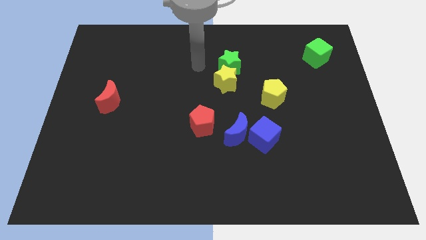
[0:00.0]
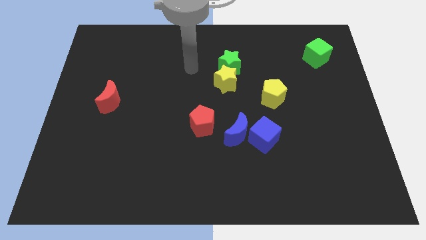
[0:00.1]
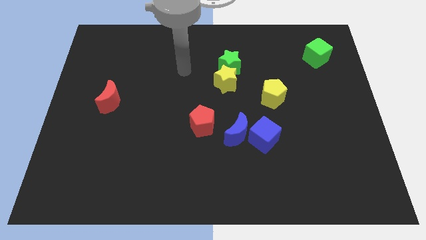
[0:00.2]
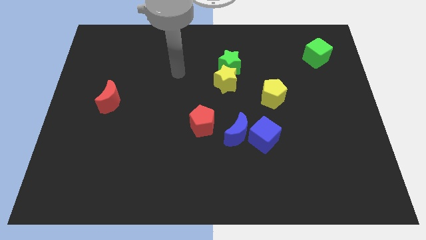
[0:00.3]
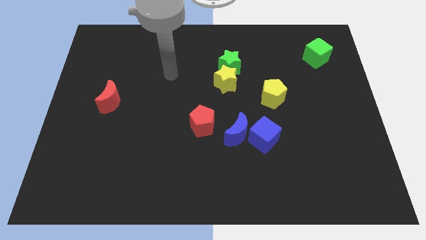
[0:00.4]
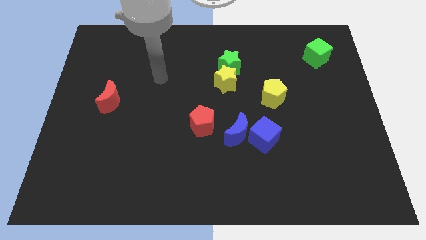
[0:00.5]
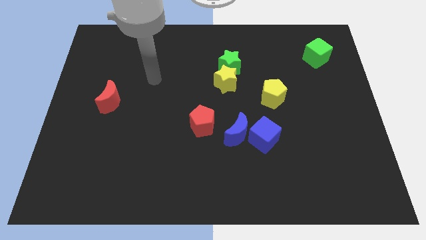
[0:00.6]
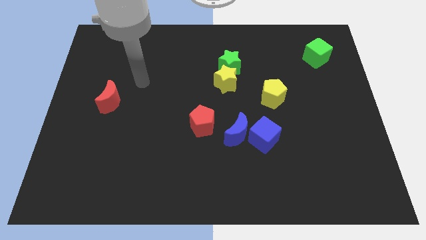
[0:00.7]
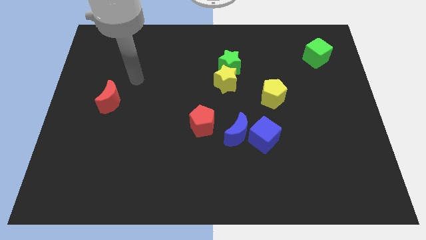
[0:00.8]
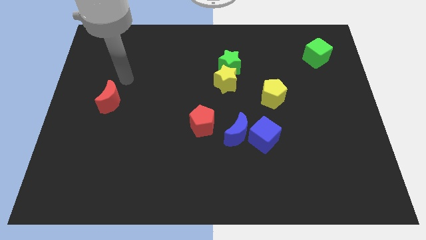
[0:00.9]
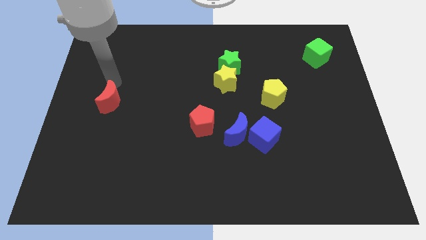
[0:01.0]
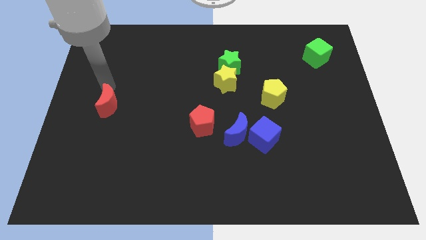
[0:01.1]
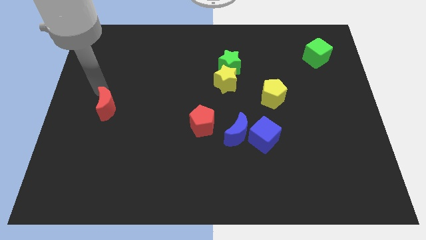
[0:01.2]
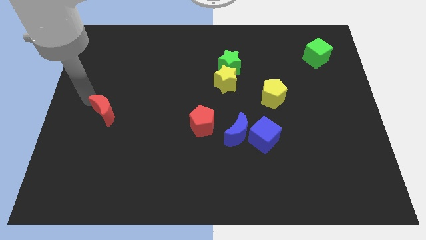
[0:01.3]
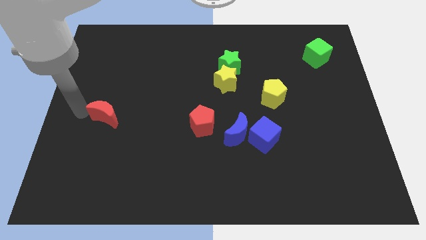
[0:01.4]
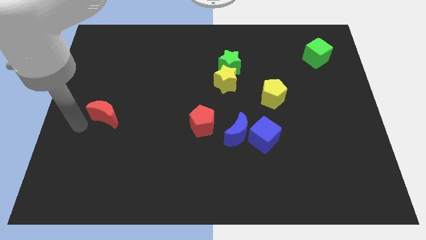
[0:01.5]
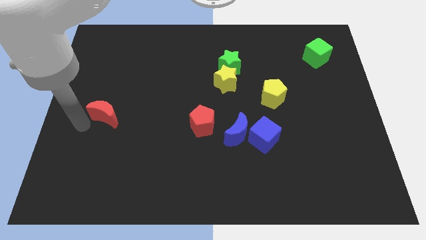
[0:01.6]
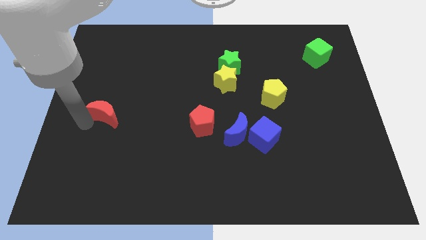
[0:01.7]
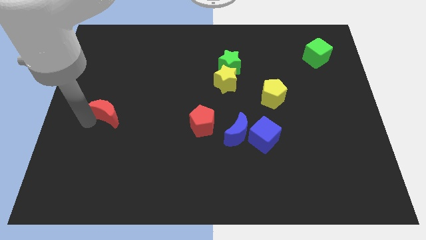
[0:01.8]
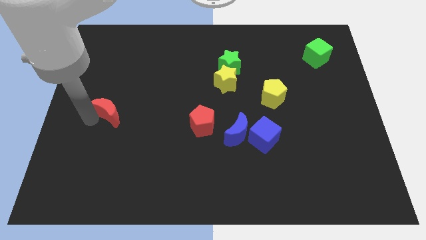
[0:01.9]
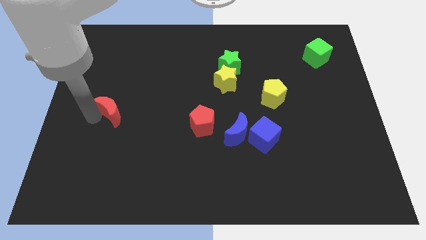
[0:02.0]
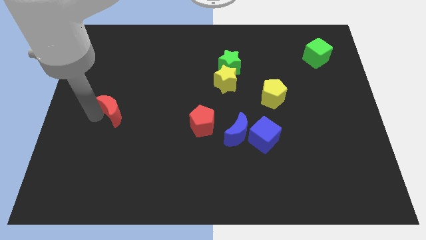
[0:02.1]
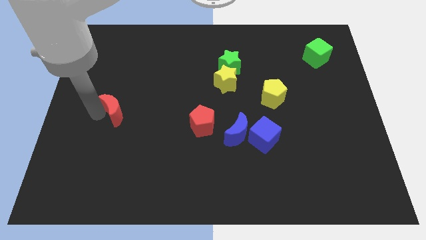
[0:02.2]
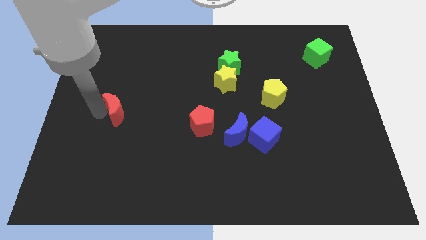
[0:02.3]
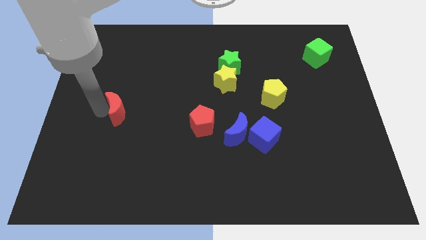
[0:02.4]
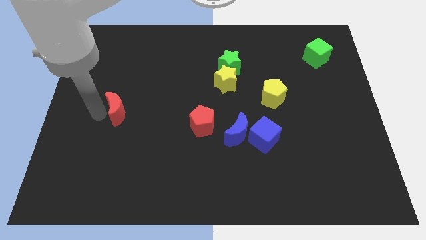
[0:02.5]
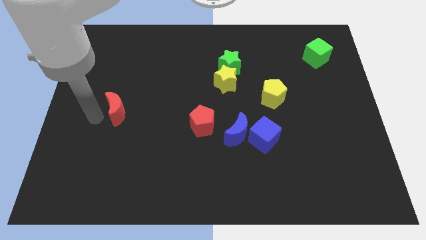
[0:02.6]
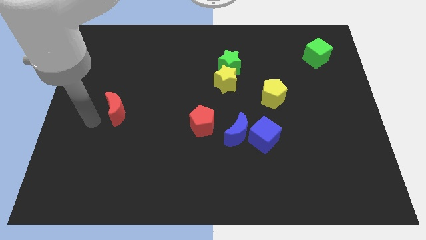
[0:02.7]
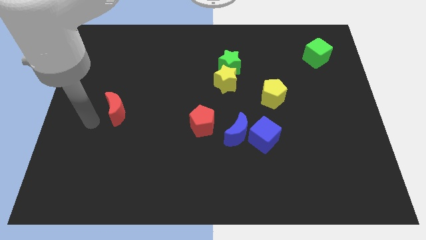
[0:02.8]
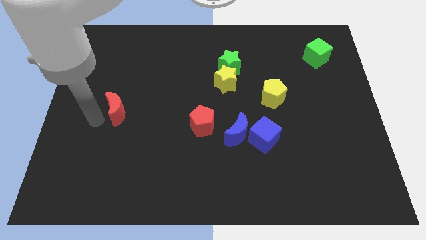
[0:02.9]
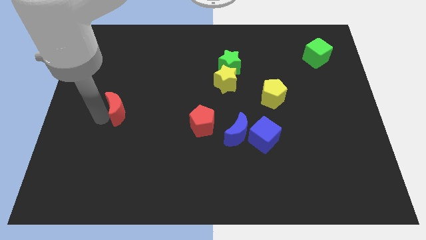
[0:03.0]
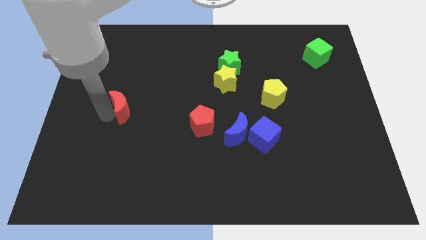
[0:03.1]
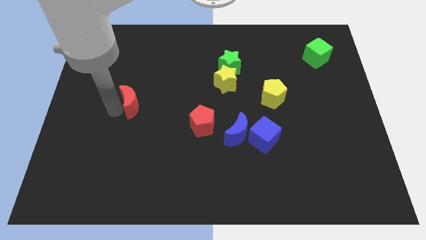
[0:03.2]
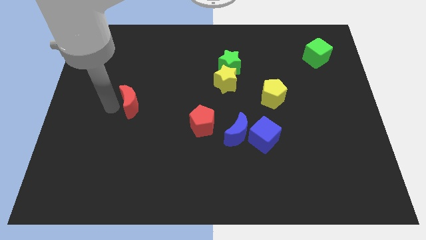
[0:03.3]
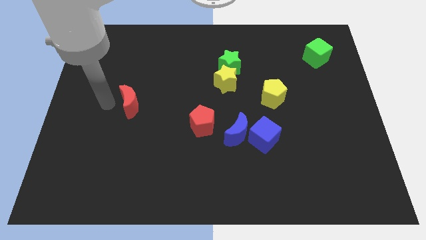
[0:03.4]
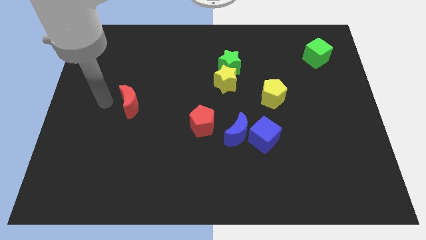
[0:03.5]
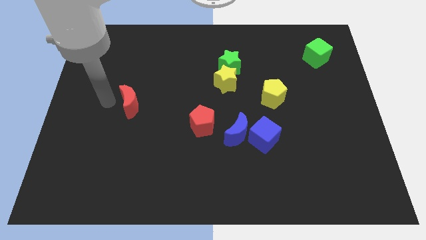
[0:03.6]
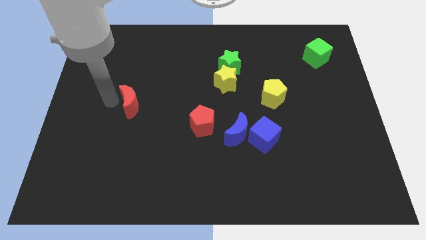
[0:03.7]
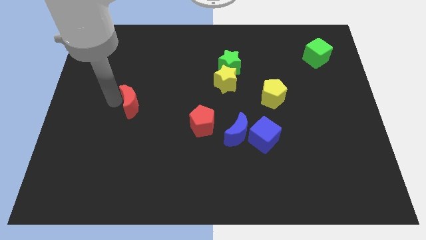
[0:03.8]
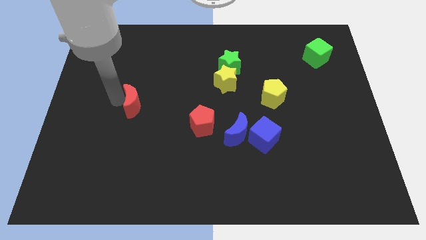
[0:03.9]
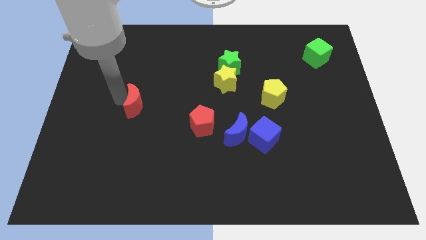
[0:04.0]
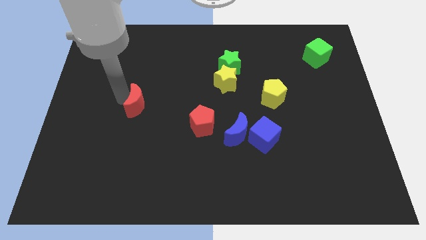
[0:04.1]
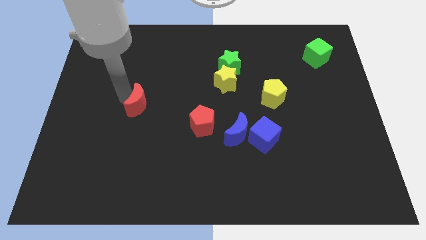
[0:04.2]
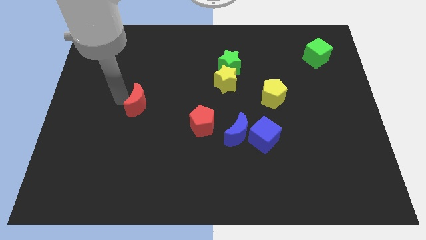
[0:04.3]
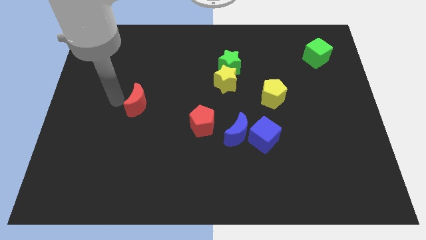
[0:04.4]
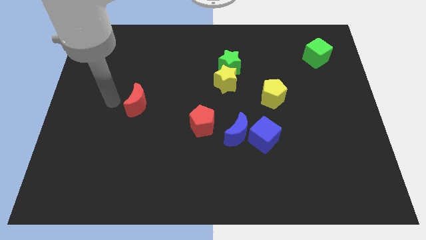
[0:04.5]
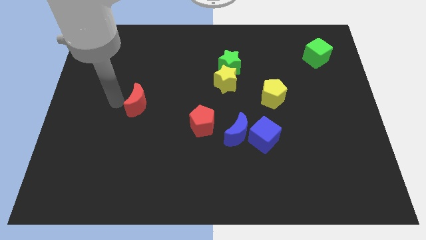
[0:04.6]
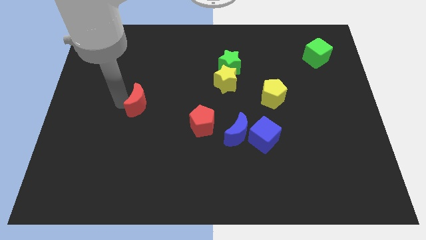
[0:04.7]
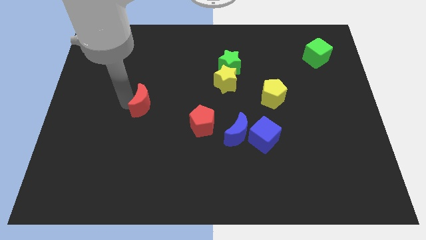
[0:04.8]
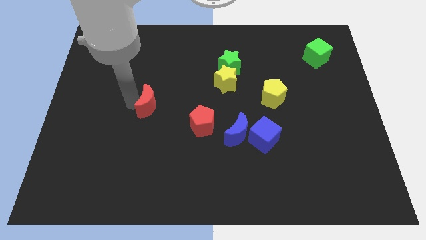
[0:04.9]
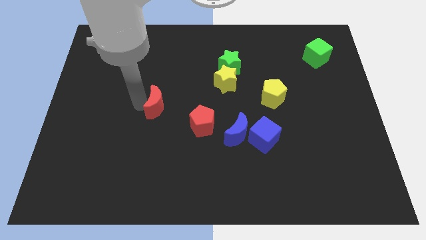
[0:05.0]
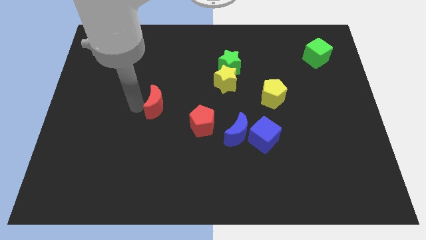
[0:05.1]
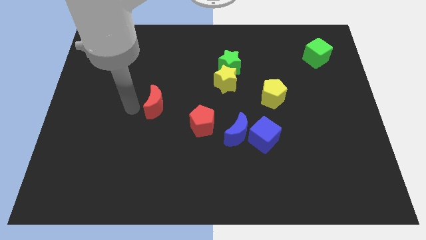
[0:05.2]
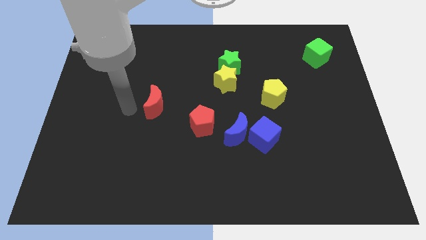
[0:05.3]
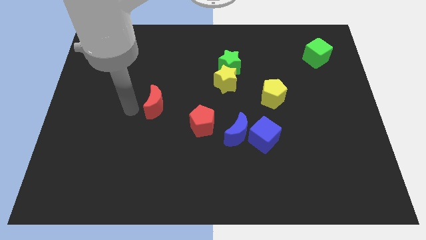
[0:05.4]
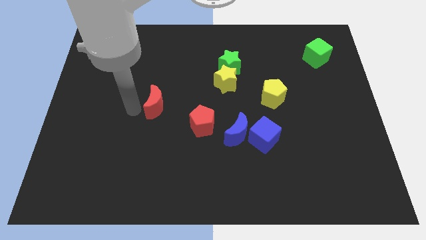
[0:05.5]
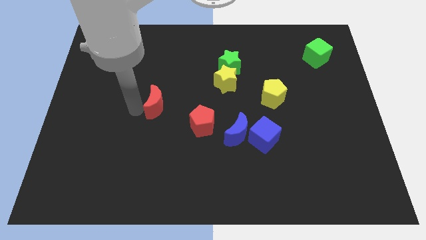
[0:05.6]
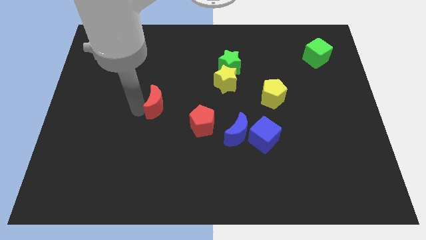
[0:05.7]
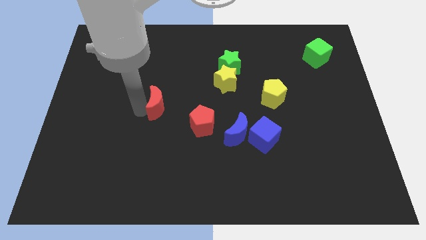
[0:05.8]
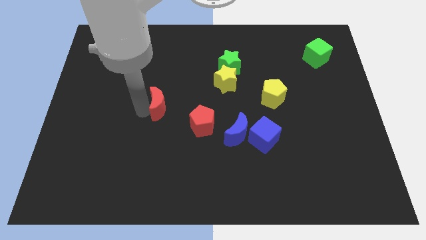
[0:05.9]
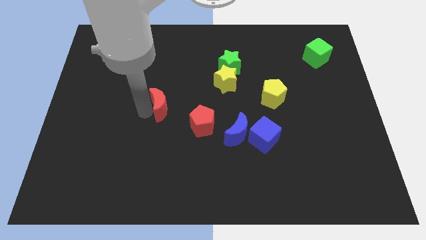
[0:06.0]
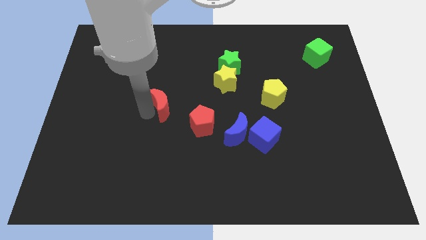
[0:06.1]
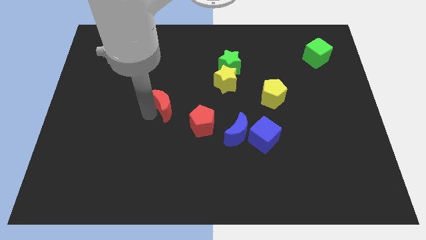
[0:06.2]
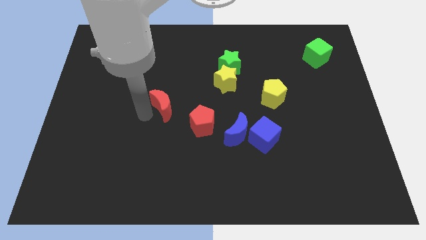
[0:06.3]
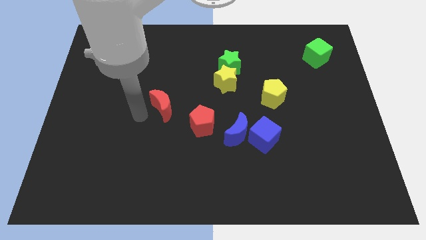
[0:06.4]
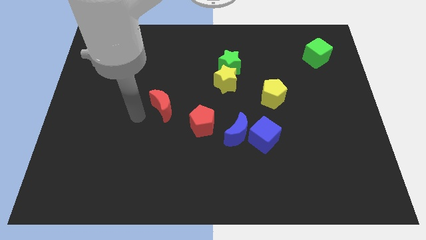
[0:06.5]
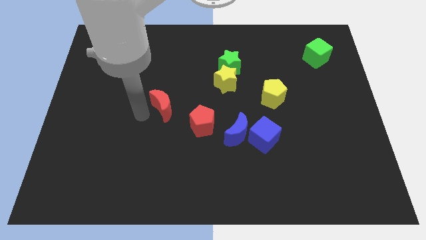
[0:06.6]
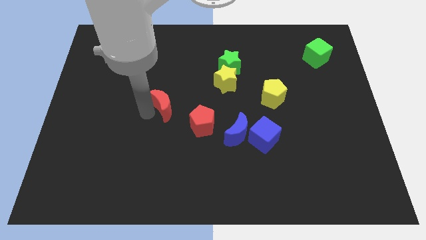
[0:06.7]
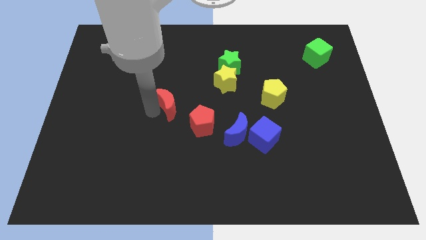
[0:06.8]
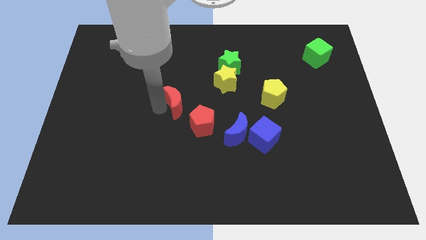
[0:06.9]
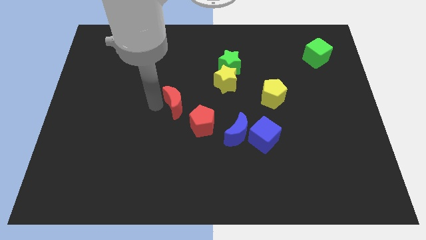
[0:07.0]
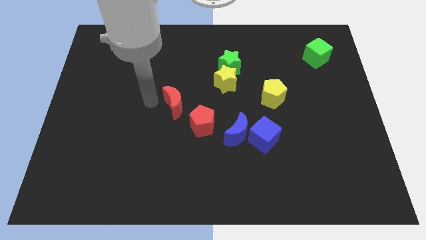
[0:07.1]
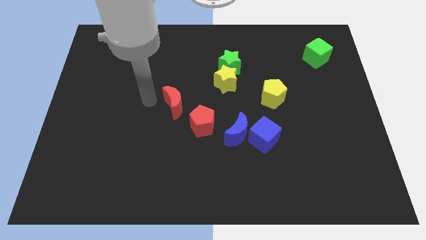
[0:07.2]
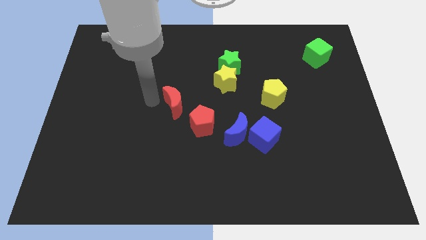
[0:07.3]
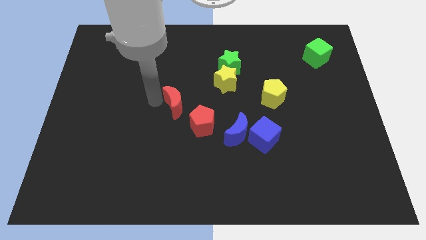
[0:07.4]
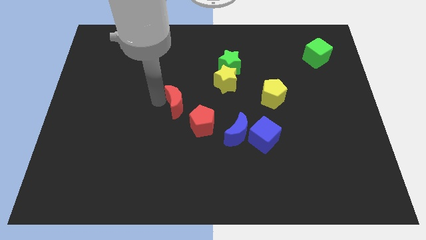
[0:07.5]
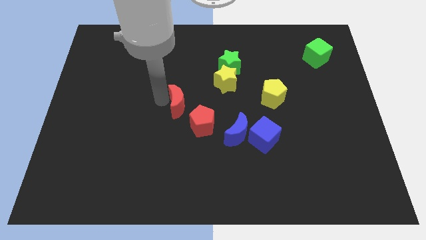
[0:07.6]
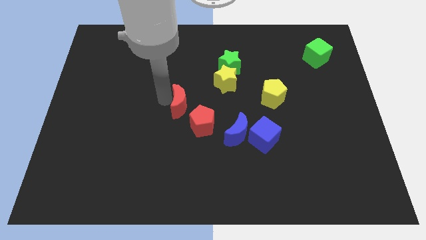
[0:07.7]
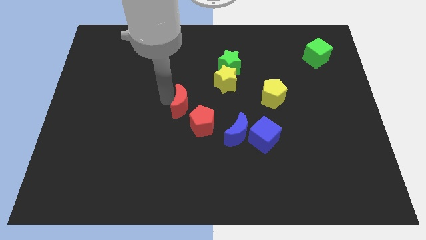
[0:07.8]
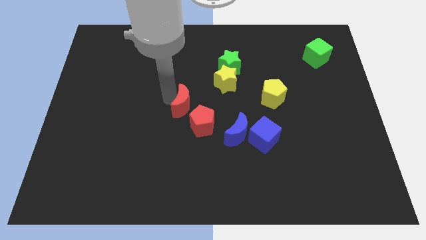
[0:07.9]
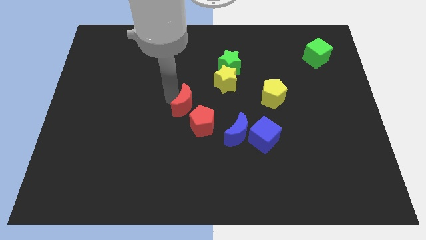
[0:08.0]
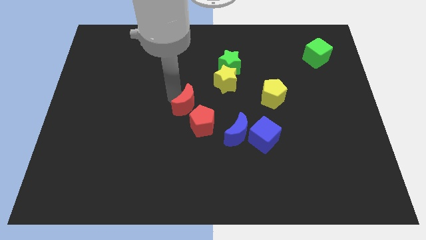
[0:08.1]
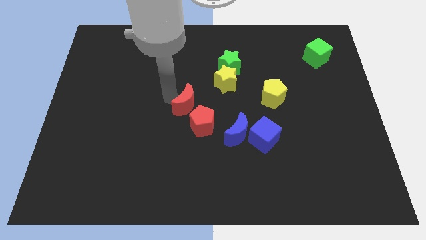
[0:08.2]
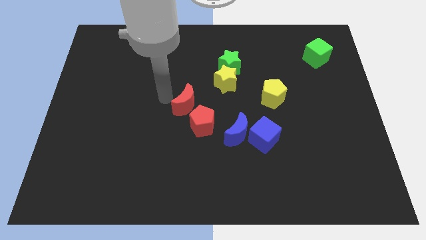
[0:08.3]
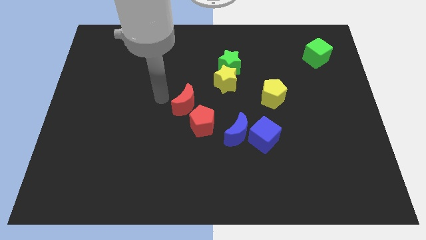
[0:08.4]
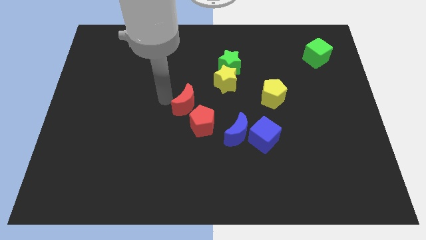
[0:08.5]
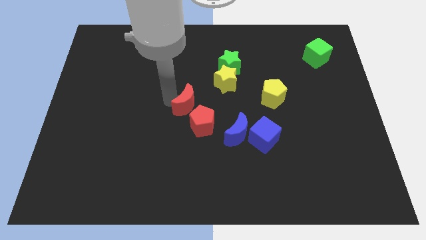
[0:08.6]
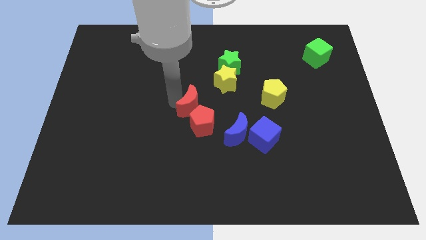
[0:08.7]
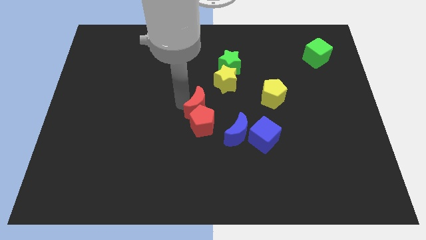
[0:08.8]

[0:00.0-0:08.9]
slide the red moon to the top left of the blue moon
